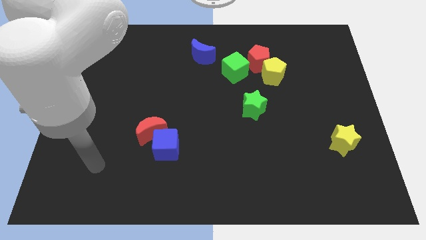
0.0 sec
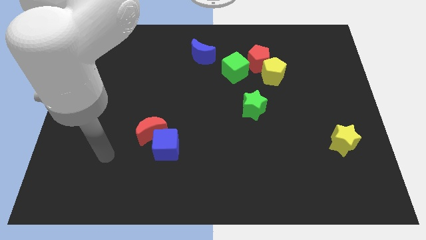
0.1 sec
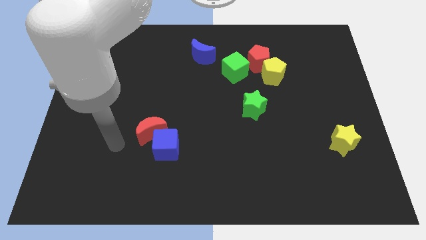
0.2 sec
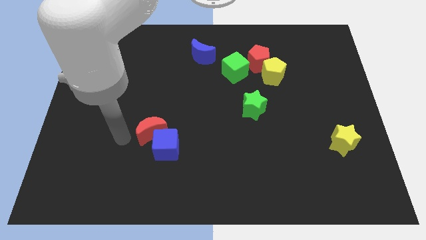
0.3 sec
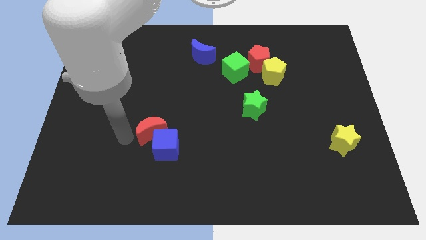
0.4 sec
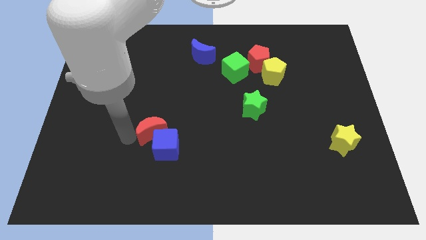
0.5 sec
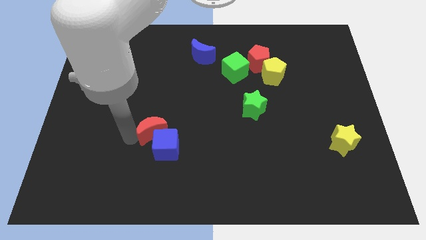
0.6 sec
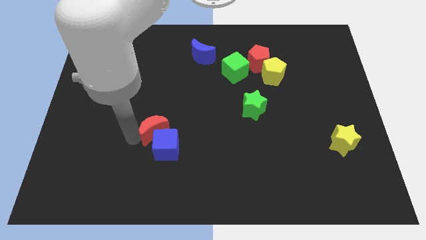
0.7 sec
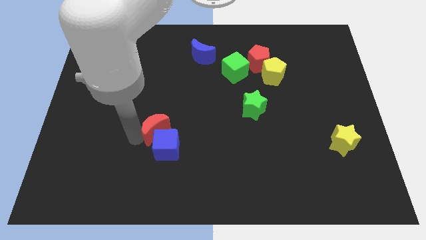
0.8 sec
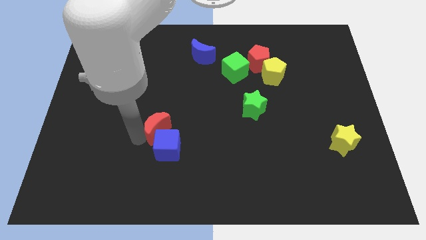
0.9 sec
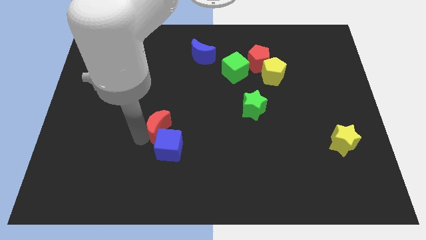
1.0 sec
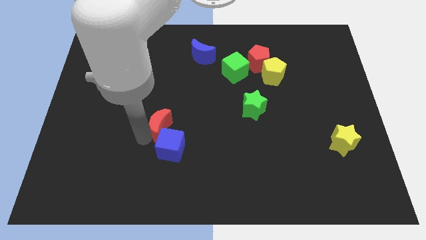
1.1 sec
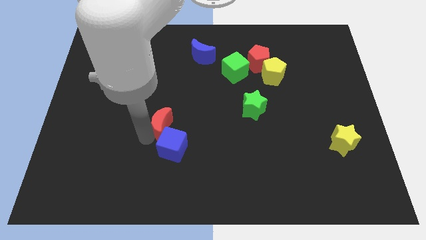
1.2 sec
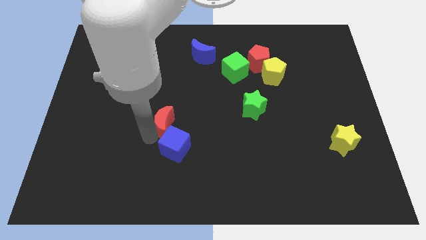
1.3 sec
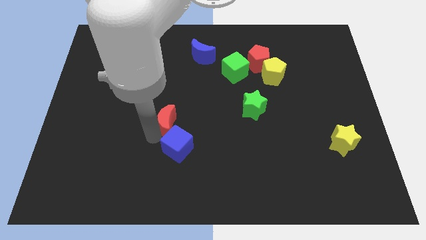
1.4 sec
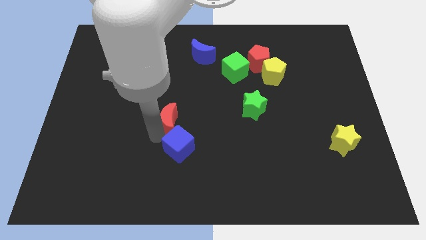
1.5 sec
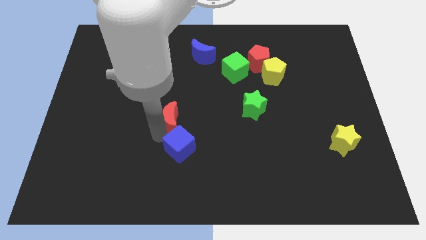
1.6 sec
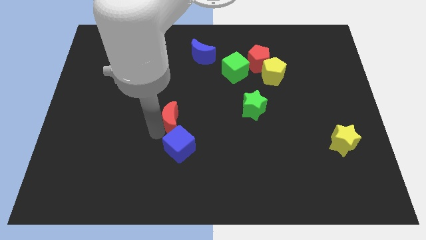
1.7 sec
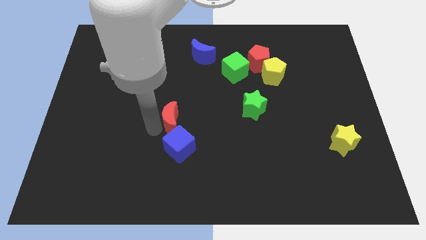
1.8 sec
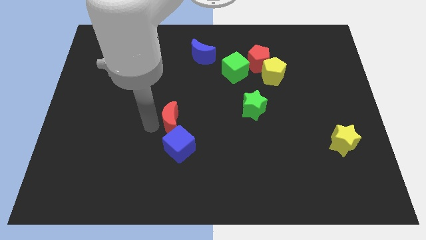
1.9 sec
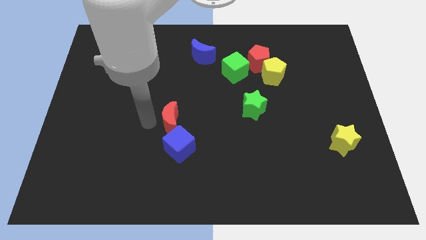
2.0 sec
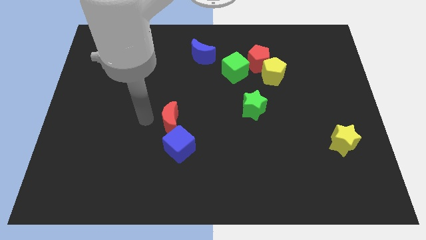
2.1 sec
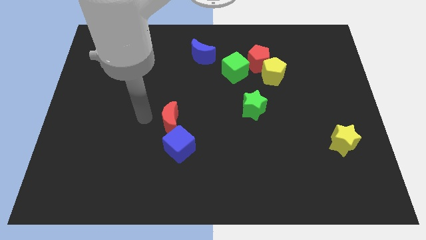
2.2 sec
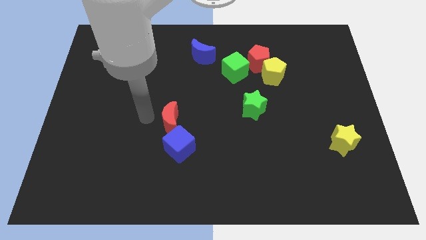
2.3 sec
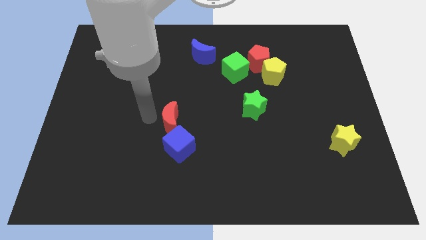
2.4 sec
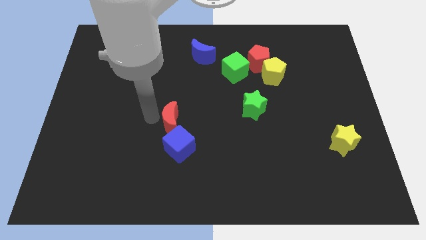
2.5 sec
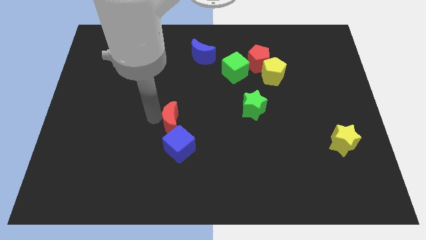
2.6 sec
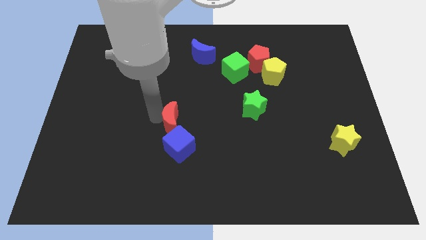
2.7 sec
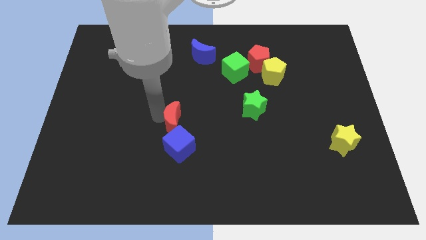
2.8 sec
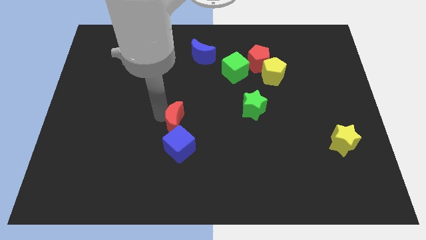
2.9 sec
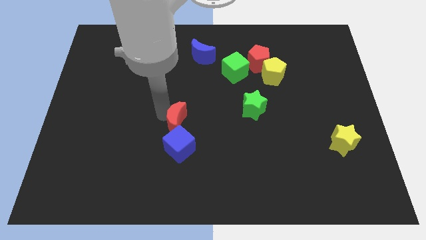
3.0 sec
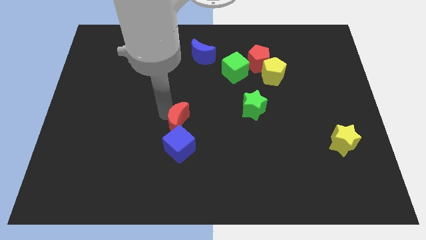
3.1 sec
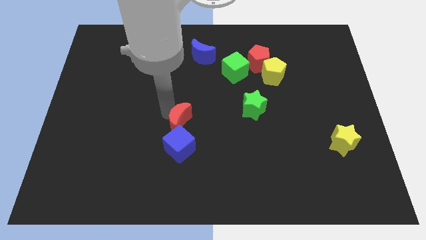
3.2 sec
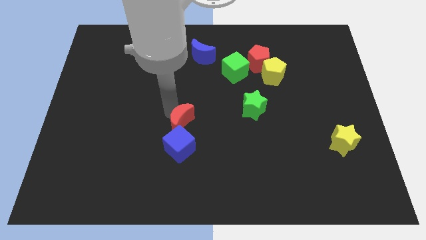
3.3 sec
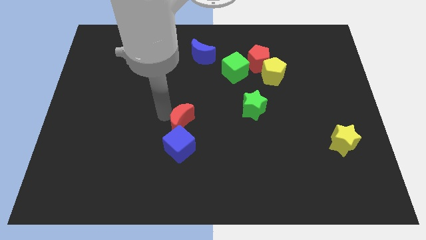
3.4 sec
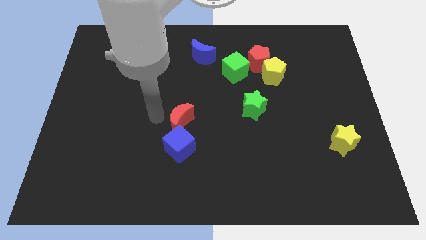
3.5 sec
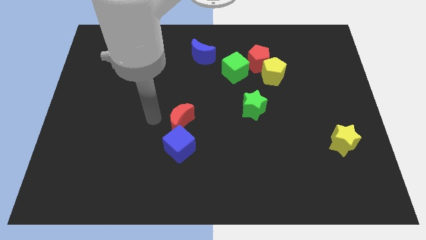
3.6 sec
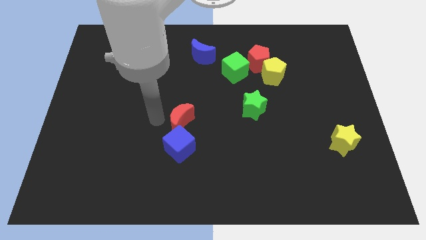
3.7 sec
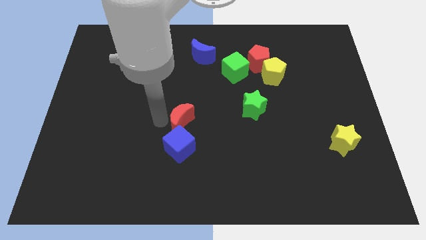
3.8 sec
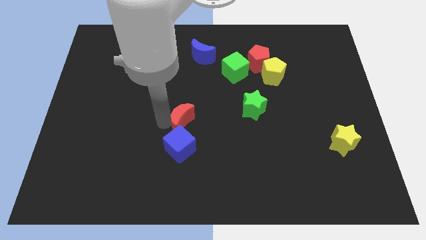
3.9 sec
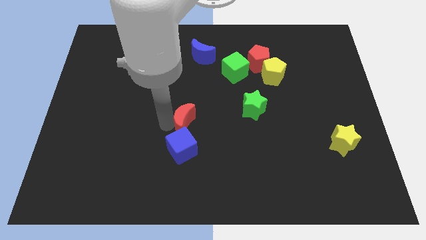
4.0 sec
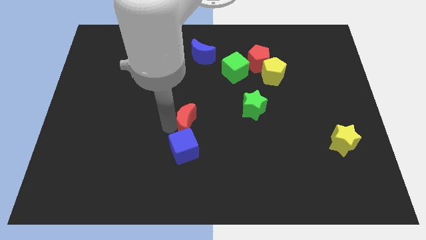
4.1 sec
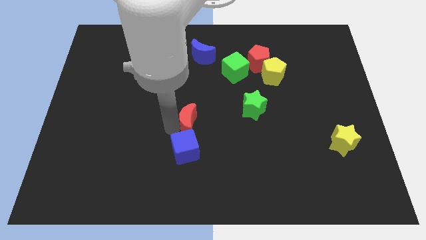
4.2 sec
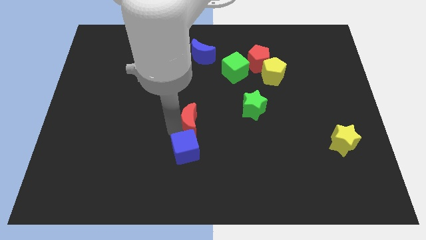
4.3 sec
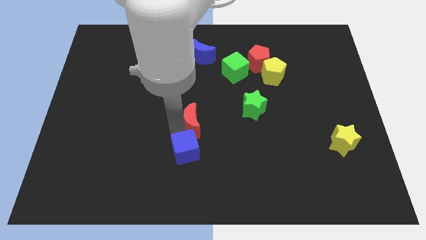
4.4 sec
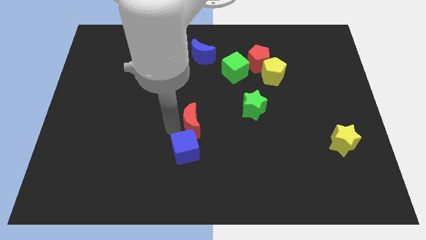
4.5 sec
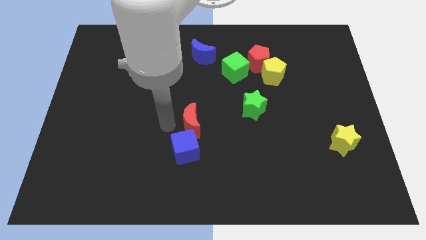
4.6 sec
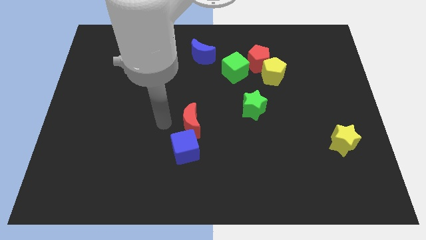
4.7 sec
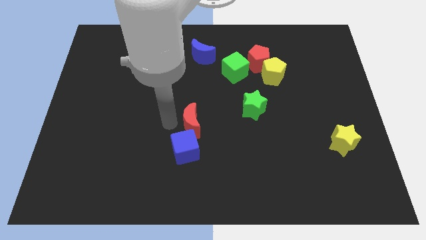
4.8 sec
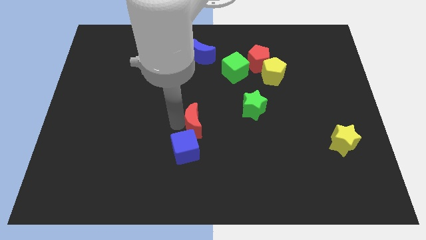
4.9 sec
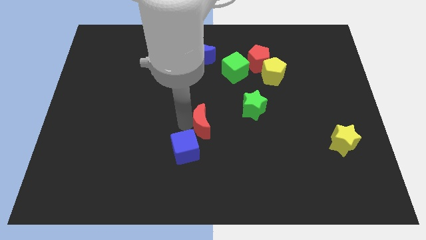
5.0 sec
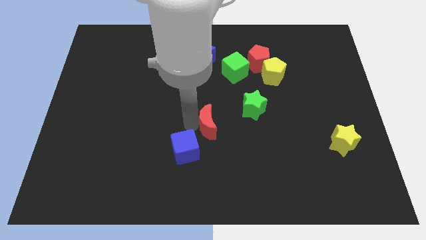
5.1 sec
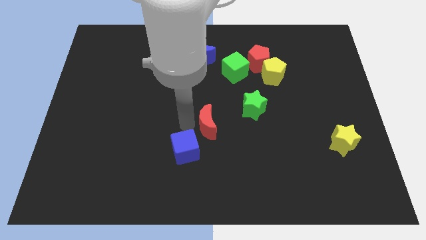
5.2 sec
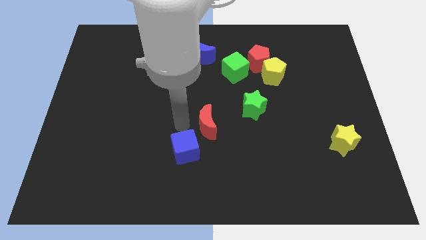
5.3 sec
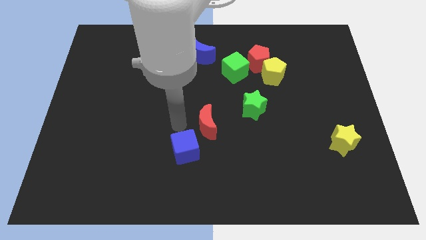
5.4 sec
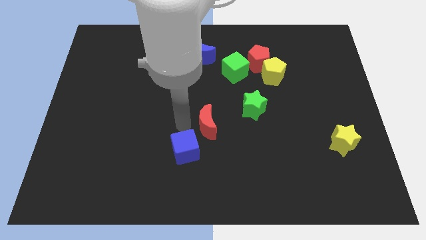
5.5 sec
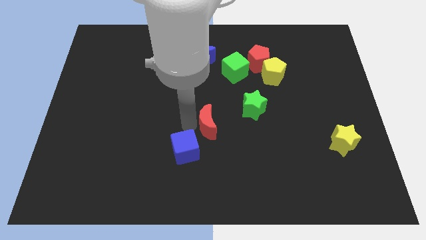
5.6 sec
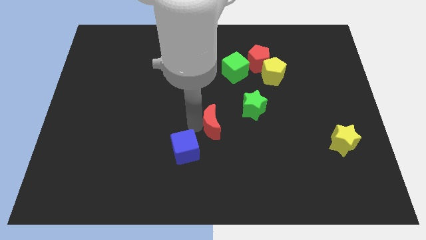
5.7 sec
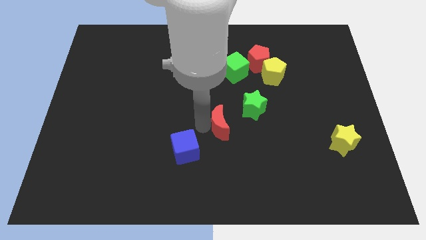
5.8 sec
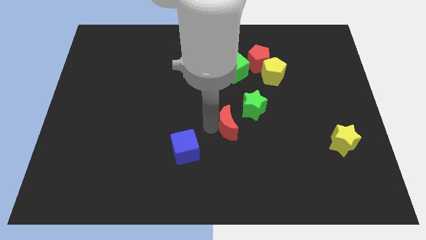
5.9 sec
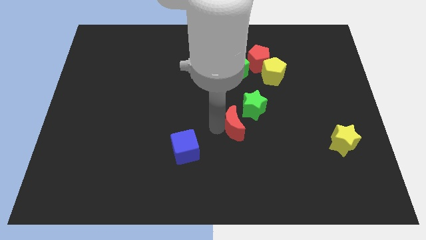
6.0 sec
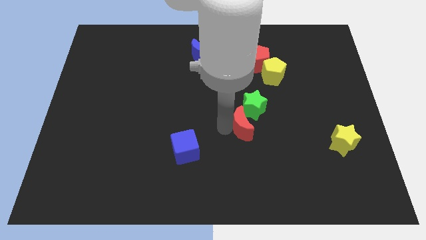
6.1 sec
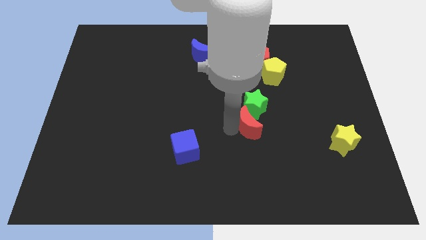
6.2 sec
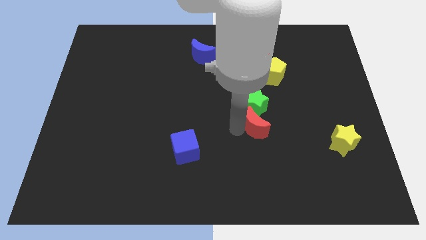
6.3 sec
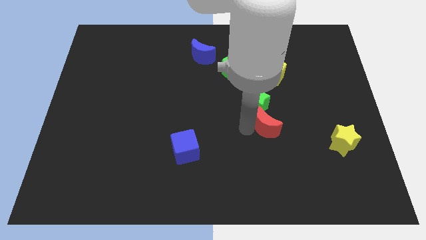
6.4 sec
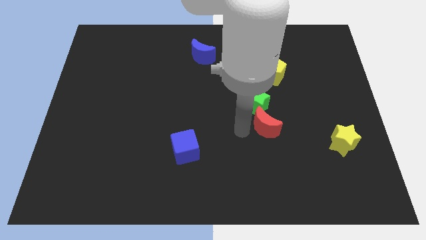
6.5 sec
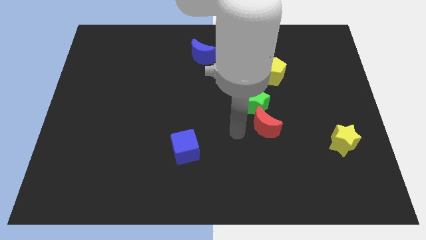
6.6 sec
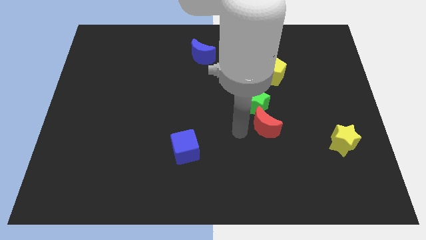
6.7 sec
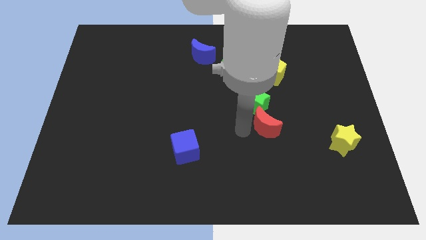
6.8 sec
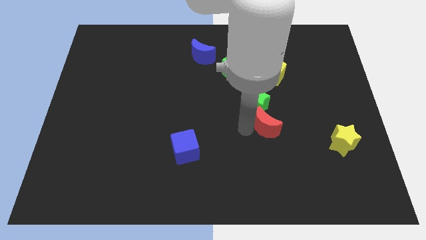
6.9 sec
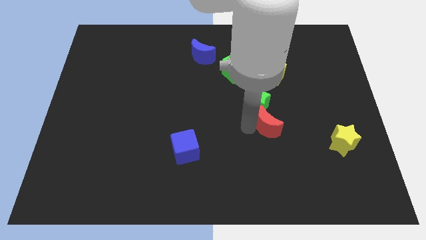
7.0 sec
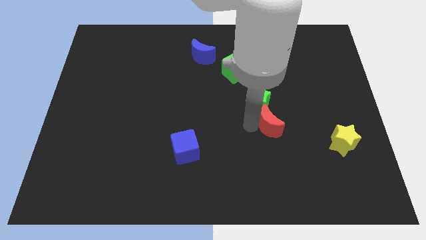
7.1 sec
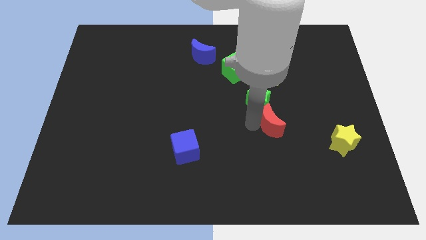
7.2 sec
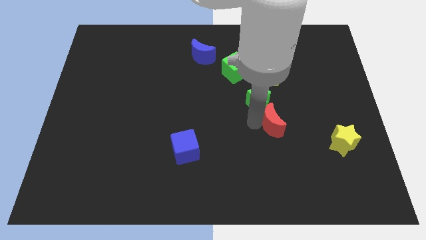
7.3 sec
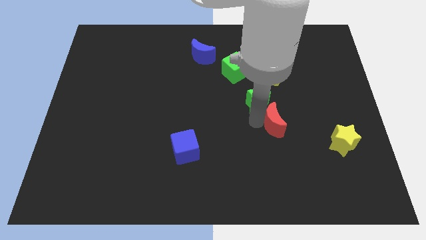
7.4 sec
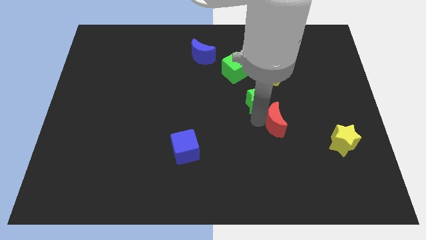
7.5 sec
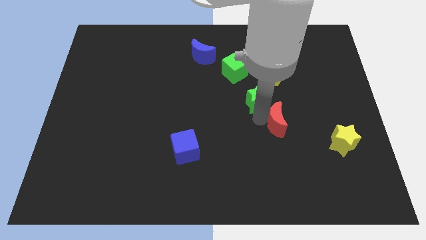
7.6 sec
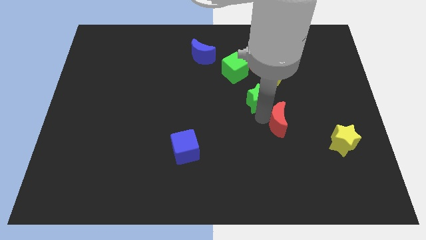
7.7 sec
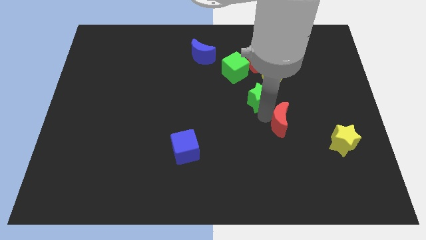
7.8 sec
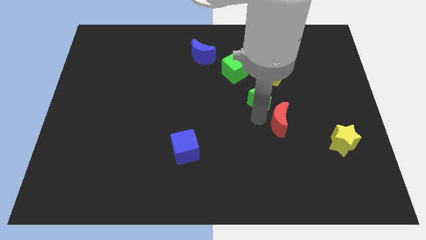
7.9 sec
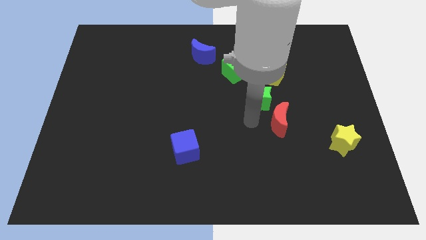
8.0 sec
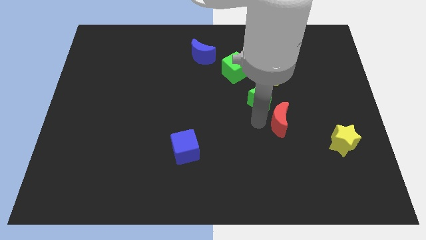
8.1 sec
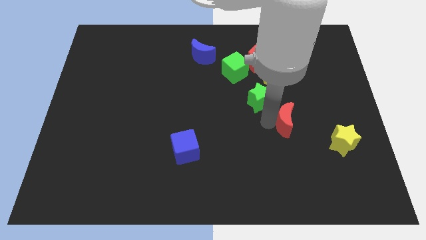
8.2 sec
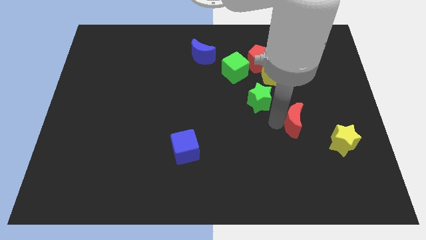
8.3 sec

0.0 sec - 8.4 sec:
move the red moon to the top left of the yellow star
